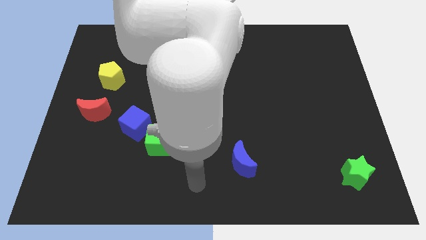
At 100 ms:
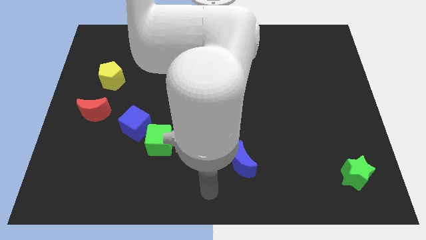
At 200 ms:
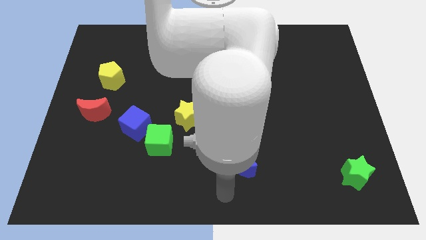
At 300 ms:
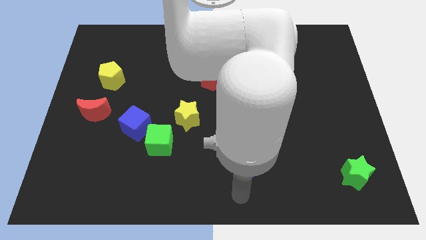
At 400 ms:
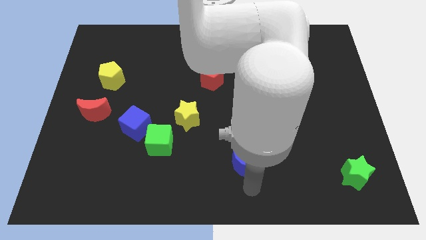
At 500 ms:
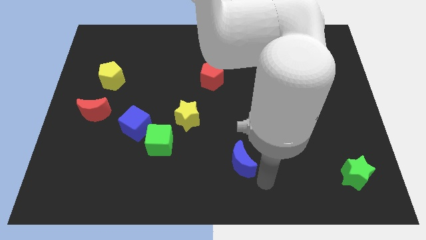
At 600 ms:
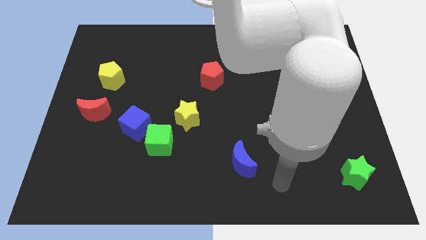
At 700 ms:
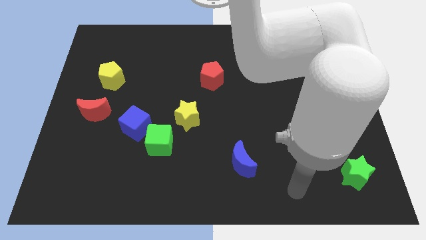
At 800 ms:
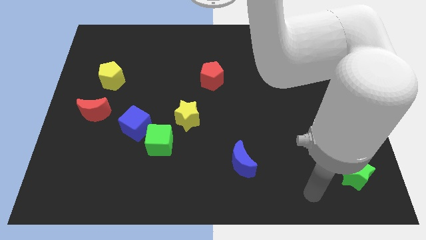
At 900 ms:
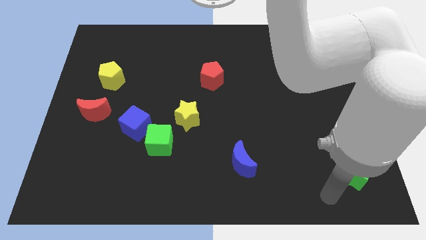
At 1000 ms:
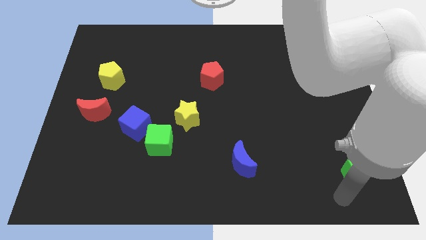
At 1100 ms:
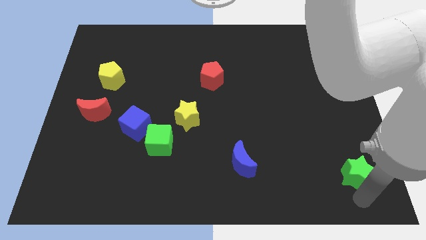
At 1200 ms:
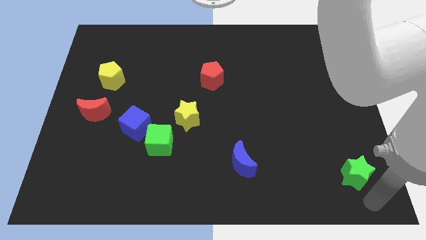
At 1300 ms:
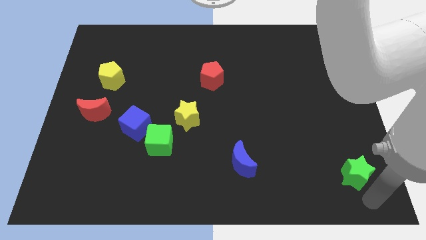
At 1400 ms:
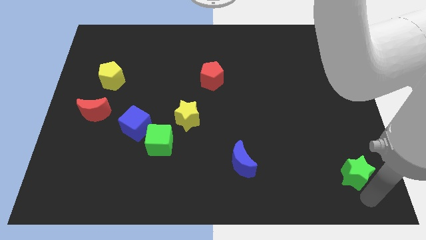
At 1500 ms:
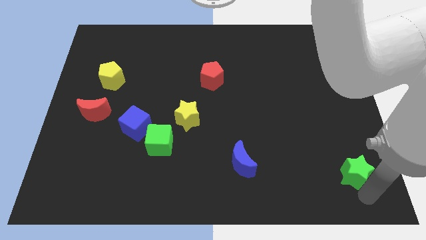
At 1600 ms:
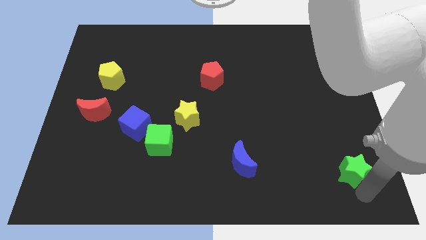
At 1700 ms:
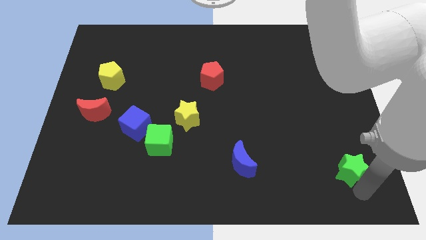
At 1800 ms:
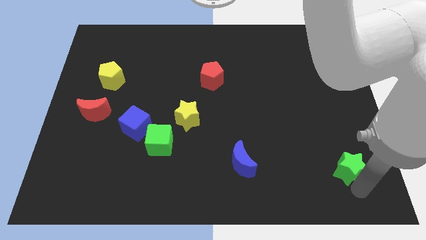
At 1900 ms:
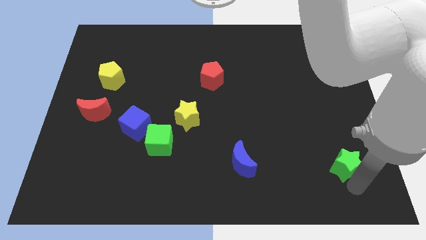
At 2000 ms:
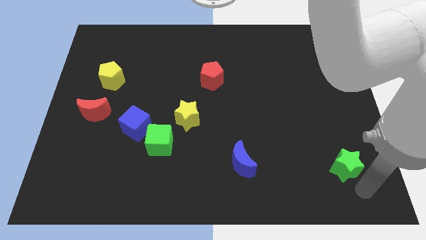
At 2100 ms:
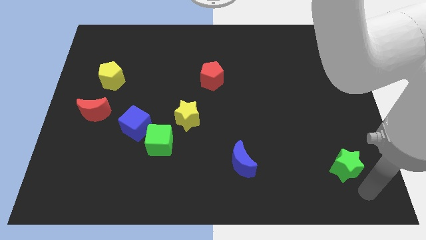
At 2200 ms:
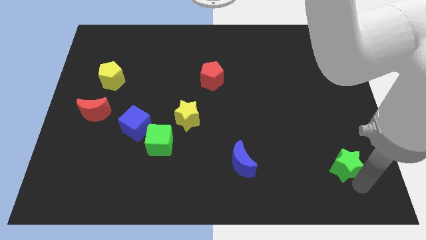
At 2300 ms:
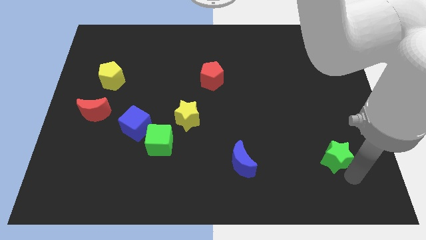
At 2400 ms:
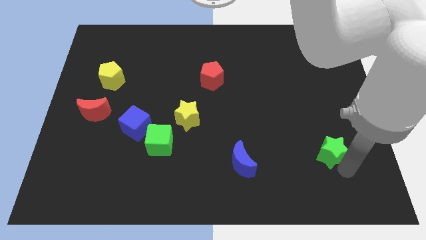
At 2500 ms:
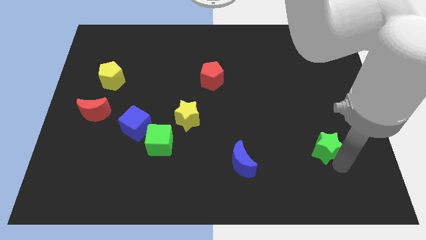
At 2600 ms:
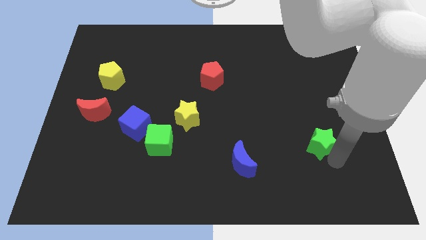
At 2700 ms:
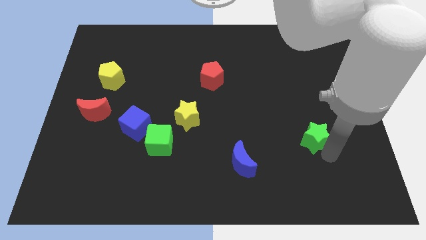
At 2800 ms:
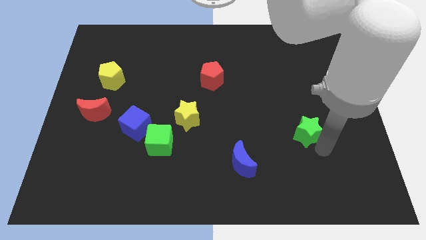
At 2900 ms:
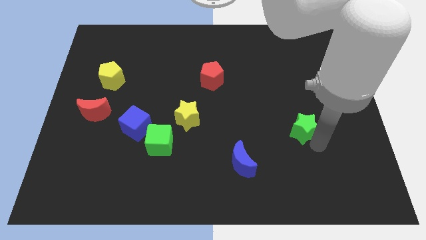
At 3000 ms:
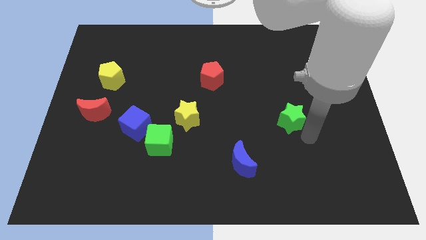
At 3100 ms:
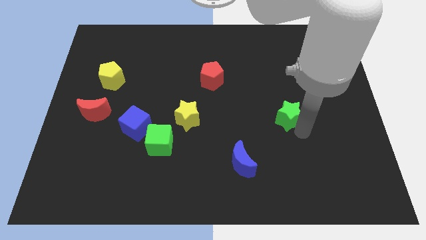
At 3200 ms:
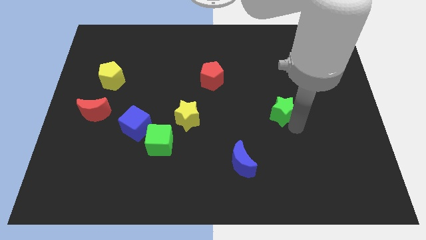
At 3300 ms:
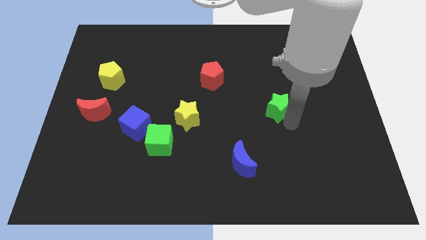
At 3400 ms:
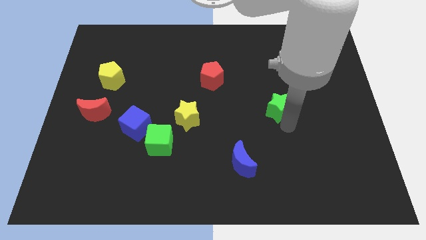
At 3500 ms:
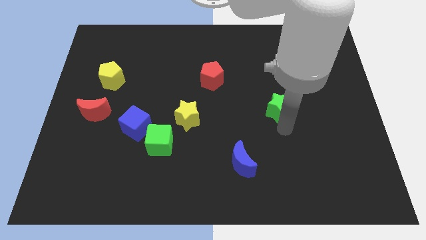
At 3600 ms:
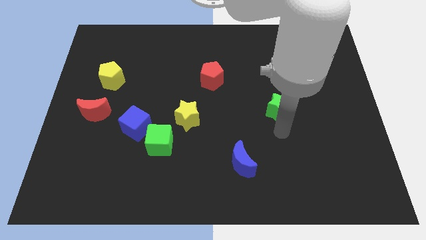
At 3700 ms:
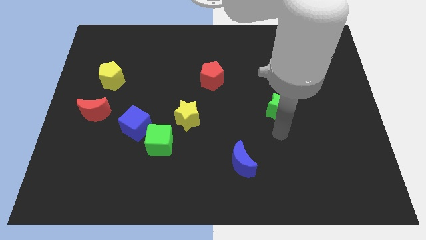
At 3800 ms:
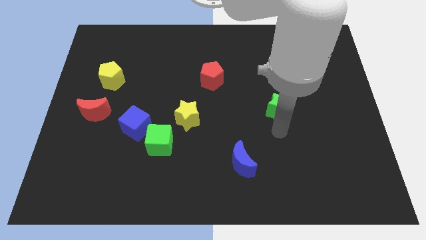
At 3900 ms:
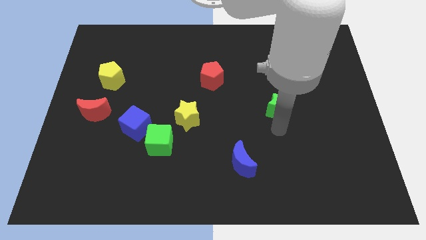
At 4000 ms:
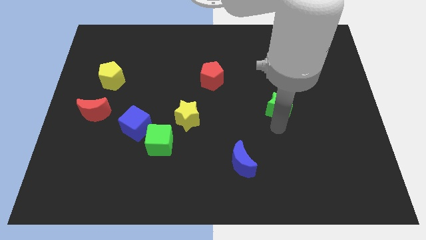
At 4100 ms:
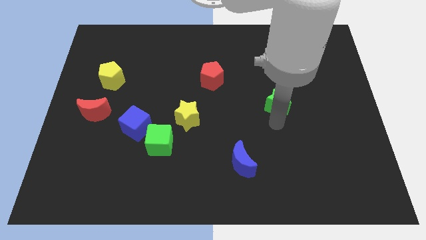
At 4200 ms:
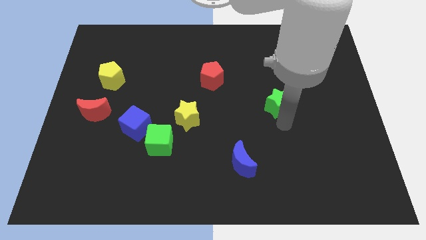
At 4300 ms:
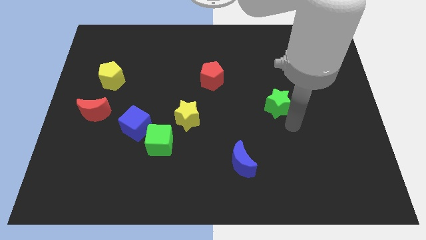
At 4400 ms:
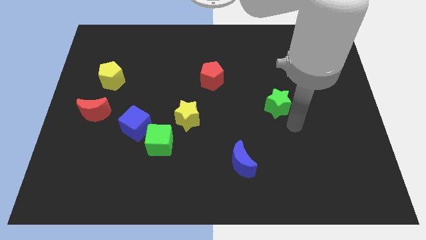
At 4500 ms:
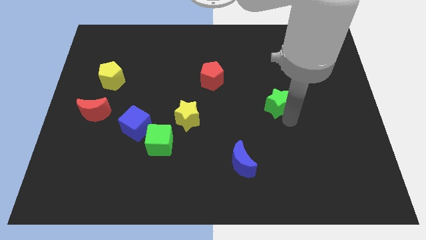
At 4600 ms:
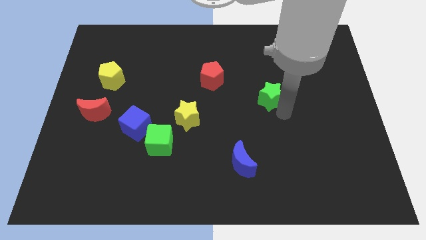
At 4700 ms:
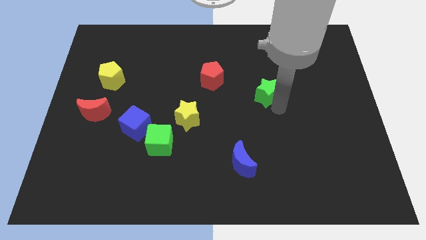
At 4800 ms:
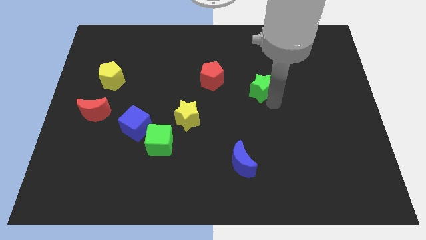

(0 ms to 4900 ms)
move the green star to the right of the red pentagon

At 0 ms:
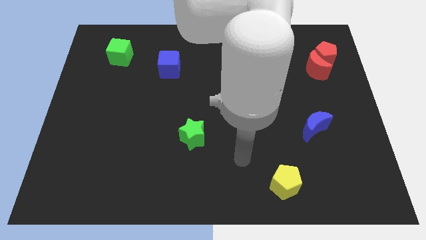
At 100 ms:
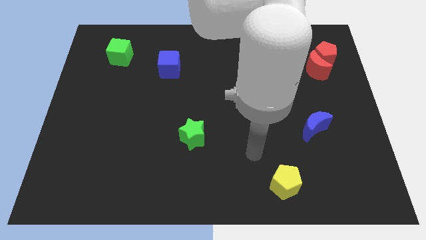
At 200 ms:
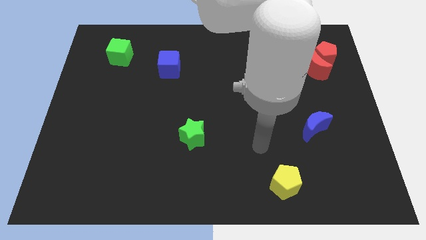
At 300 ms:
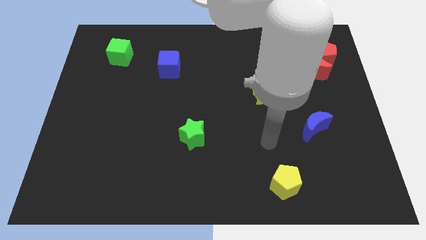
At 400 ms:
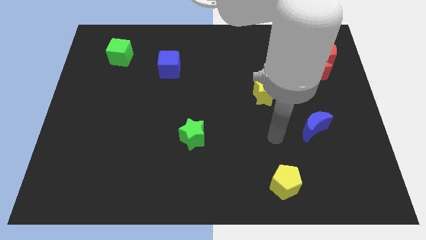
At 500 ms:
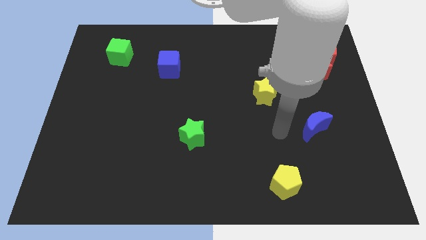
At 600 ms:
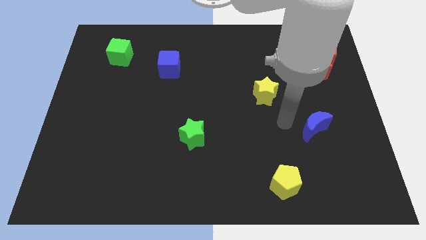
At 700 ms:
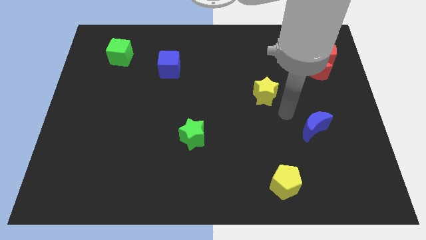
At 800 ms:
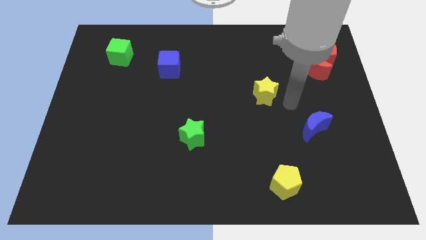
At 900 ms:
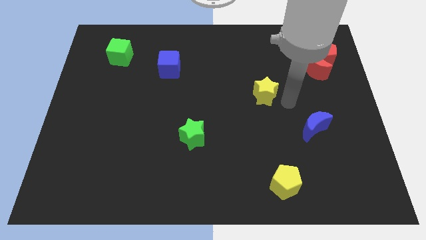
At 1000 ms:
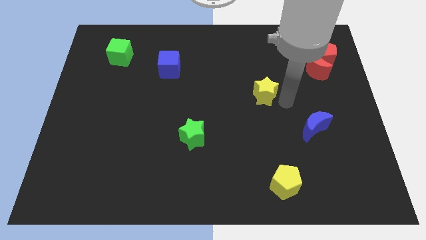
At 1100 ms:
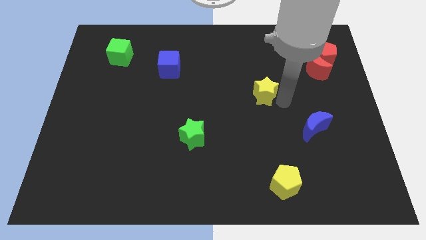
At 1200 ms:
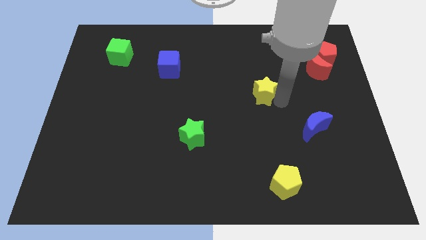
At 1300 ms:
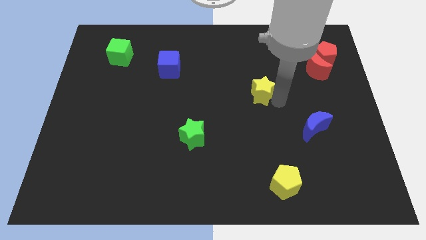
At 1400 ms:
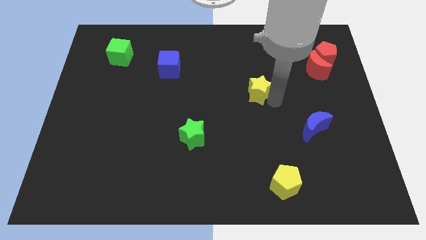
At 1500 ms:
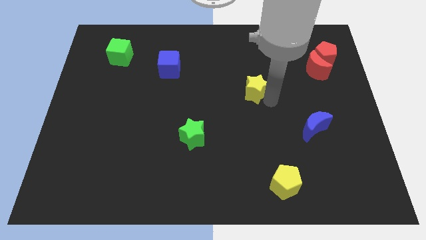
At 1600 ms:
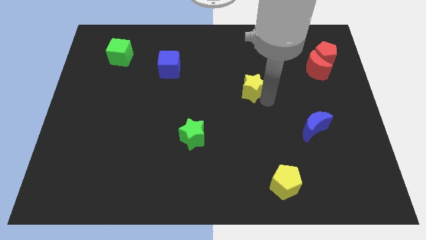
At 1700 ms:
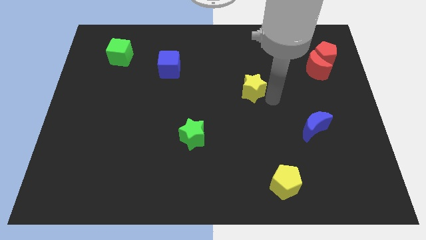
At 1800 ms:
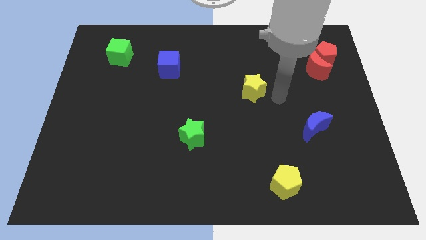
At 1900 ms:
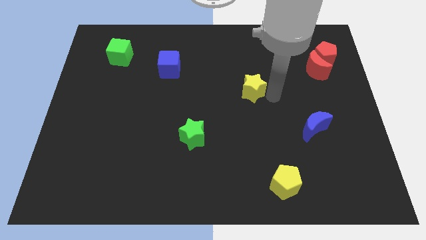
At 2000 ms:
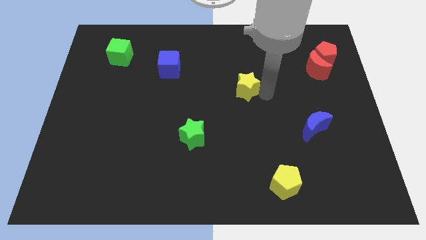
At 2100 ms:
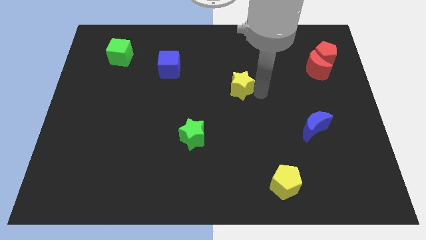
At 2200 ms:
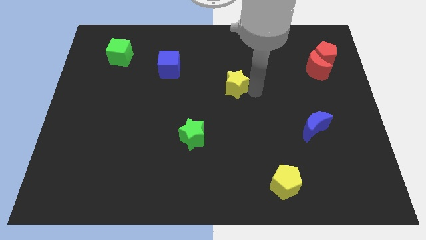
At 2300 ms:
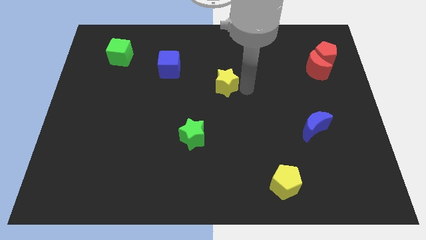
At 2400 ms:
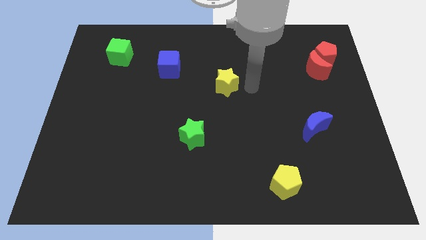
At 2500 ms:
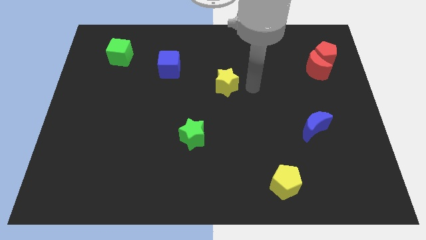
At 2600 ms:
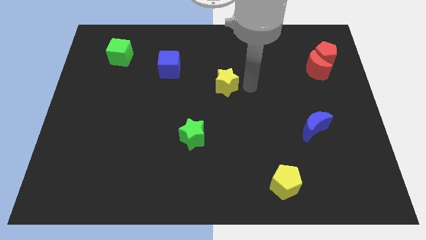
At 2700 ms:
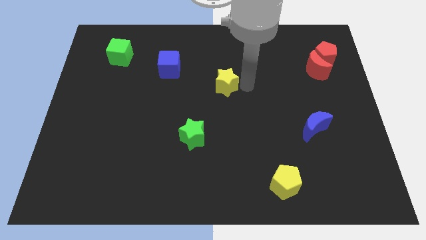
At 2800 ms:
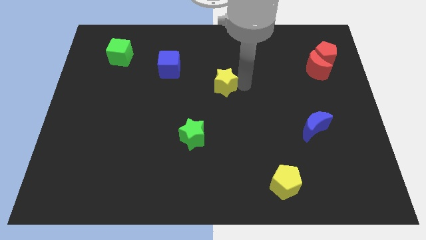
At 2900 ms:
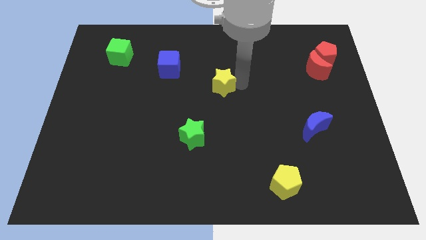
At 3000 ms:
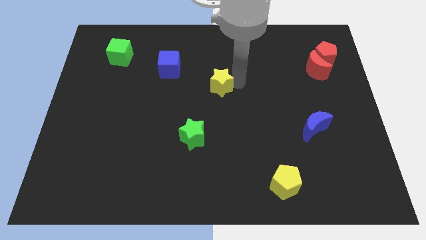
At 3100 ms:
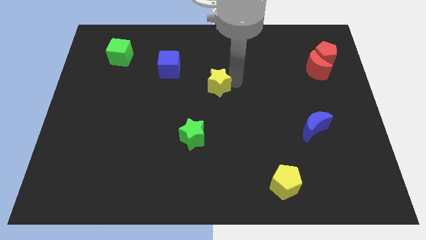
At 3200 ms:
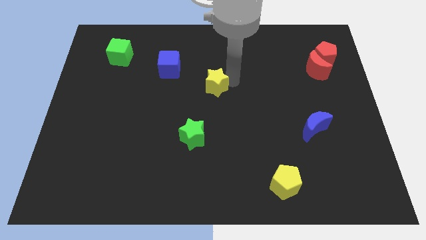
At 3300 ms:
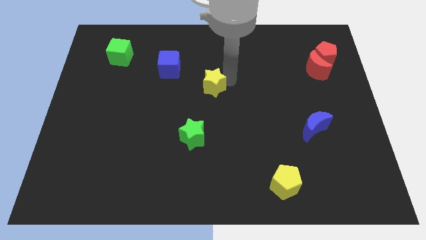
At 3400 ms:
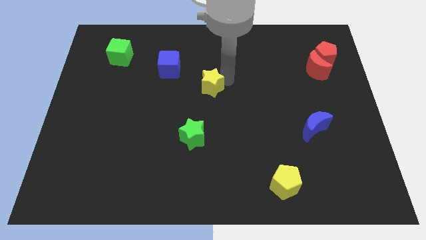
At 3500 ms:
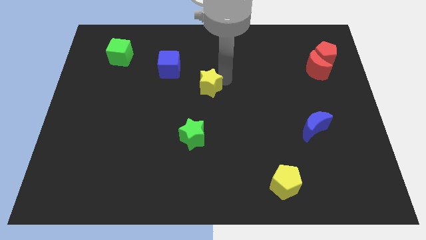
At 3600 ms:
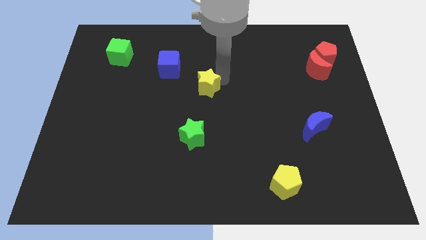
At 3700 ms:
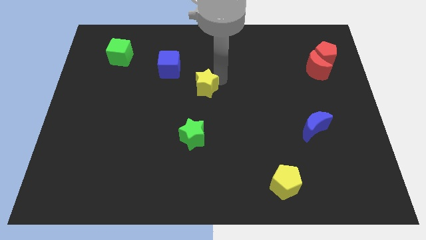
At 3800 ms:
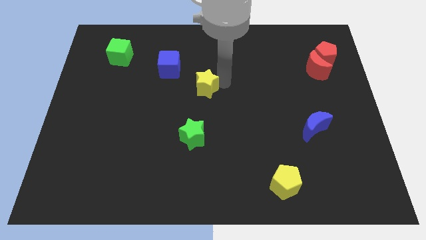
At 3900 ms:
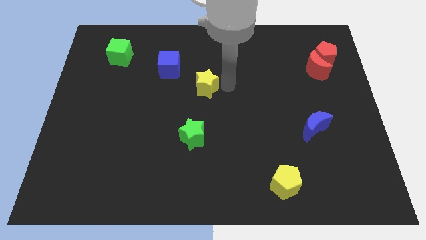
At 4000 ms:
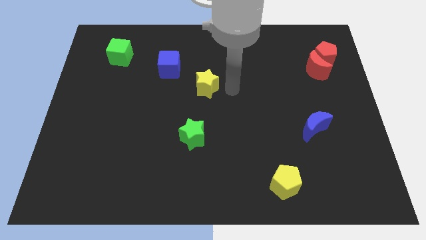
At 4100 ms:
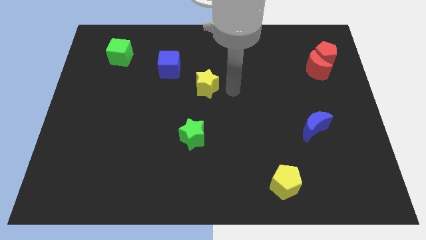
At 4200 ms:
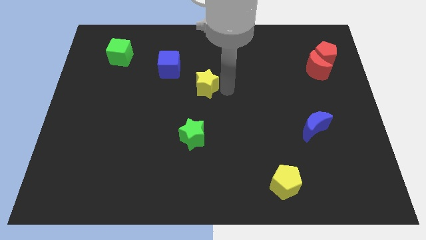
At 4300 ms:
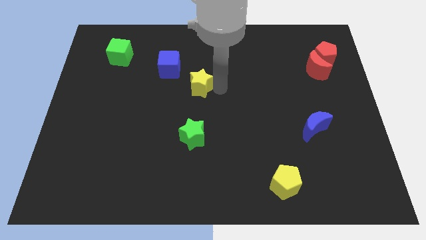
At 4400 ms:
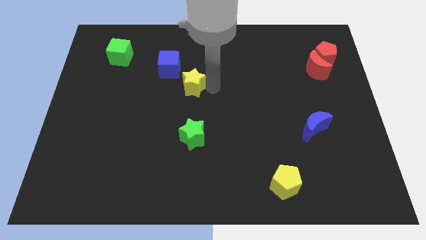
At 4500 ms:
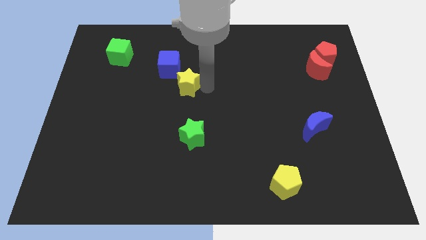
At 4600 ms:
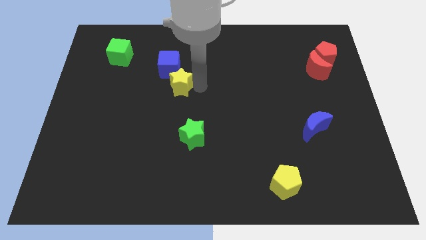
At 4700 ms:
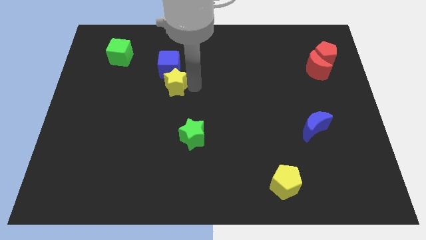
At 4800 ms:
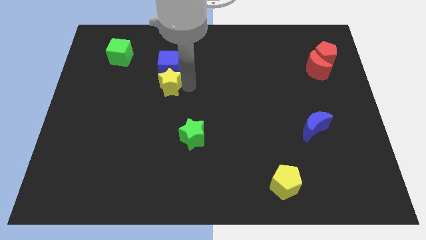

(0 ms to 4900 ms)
put the yellow star to the bottom left side of the blue cube
